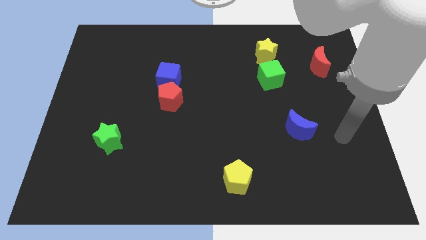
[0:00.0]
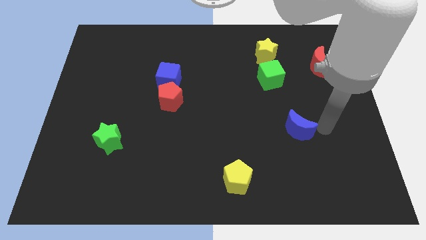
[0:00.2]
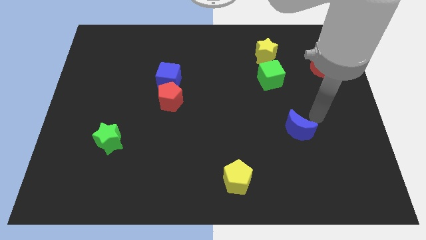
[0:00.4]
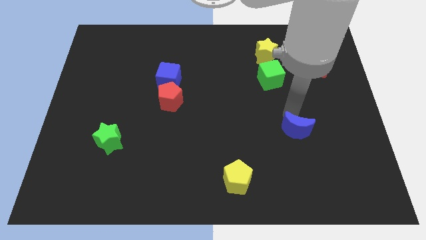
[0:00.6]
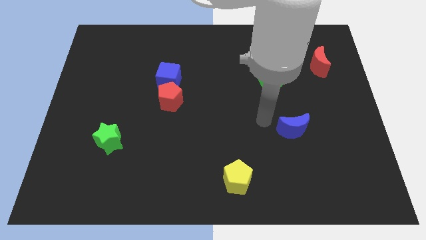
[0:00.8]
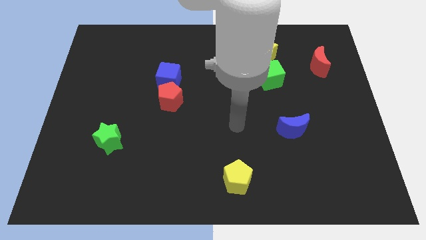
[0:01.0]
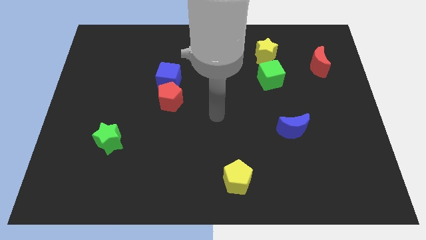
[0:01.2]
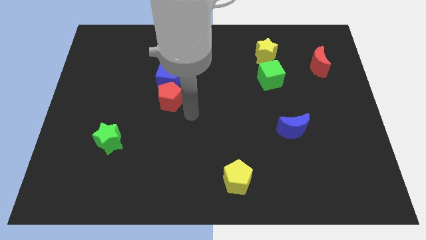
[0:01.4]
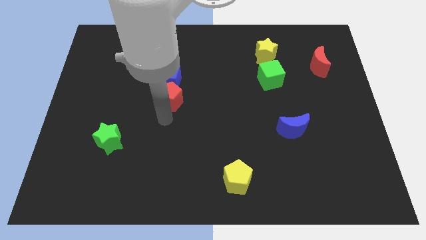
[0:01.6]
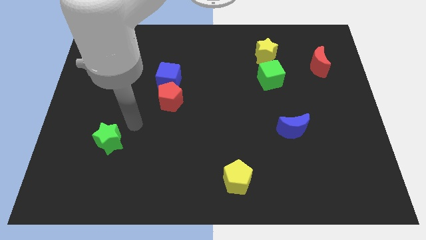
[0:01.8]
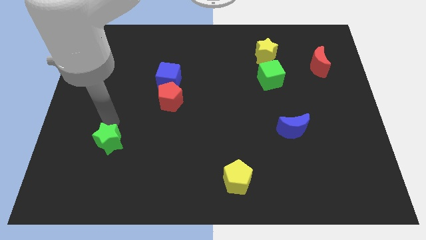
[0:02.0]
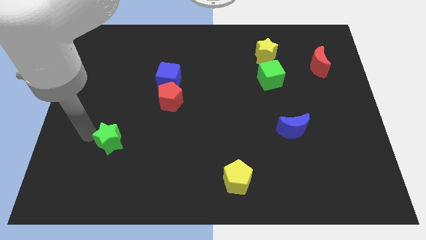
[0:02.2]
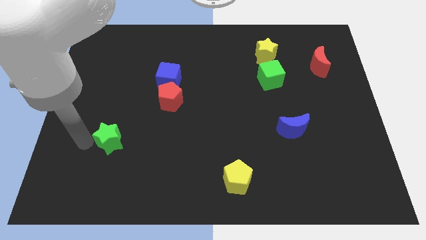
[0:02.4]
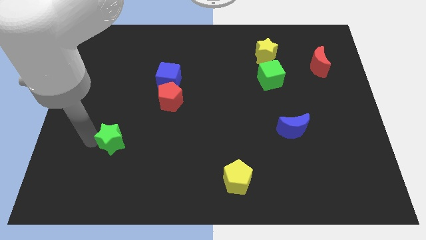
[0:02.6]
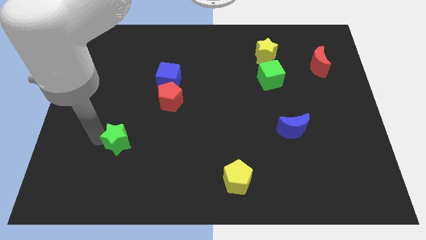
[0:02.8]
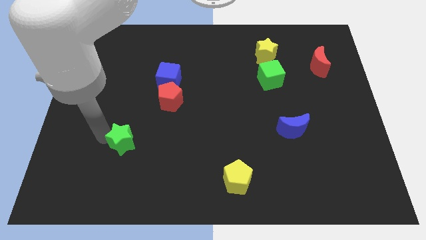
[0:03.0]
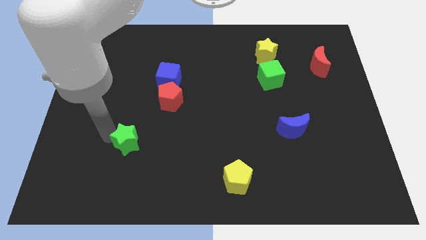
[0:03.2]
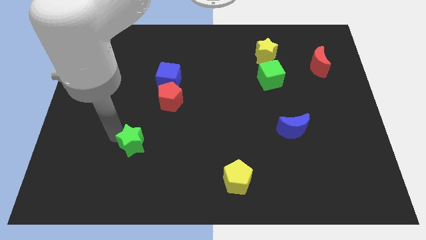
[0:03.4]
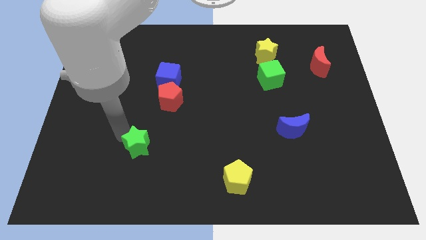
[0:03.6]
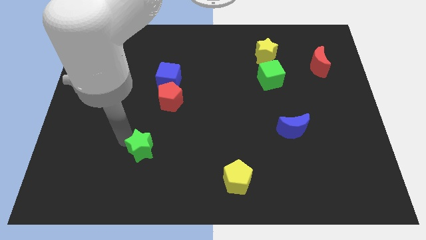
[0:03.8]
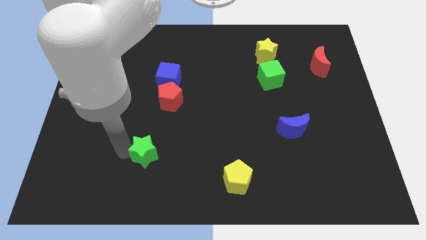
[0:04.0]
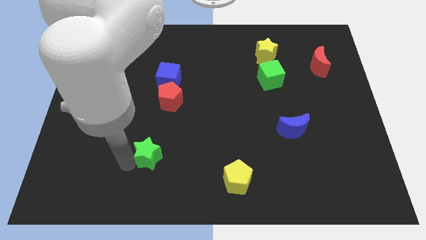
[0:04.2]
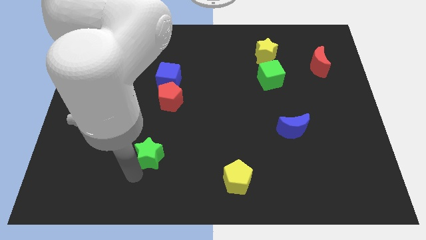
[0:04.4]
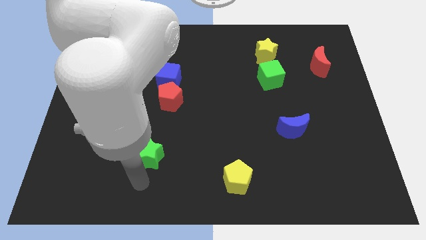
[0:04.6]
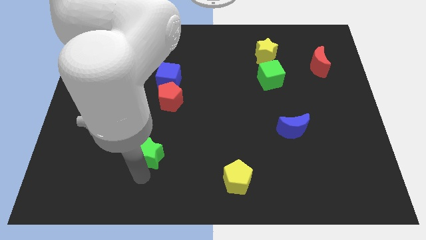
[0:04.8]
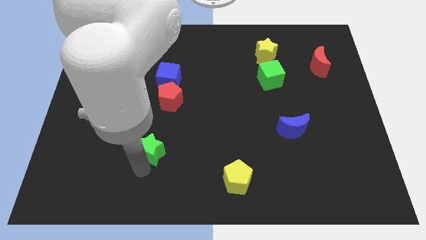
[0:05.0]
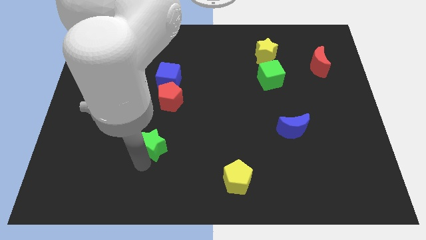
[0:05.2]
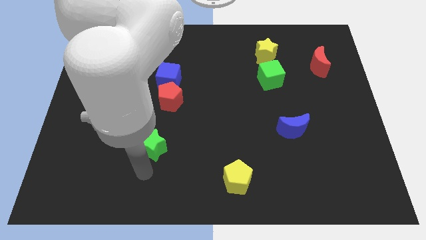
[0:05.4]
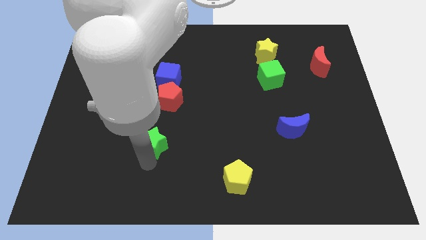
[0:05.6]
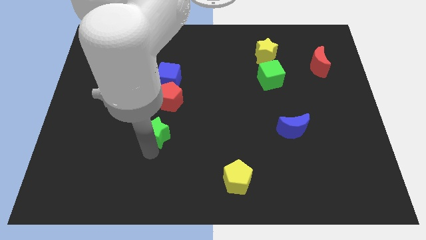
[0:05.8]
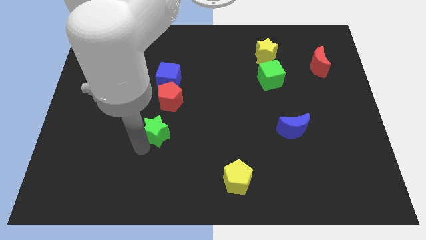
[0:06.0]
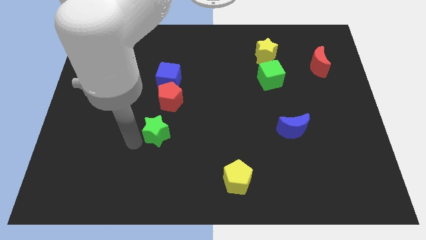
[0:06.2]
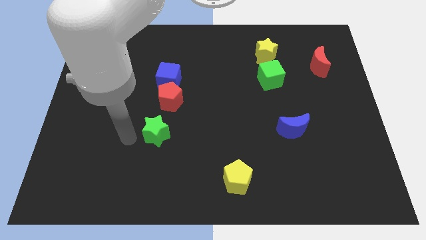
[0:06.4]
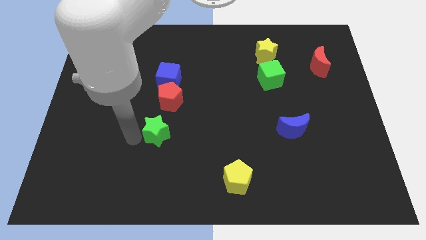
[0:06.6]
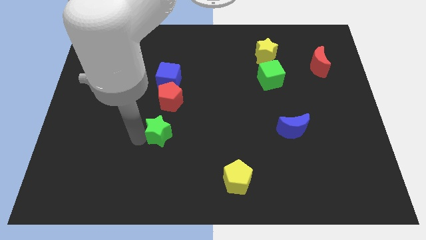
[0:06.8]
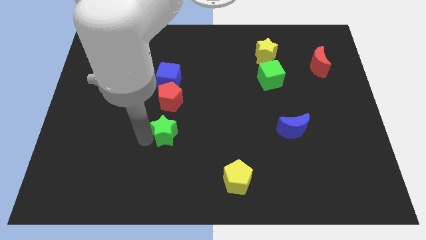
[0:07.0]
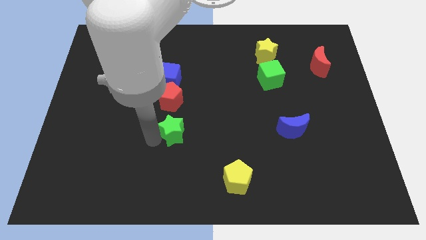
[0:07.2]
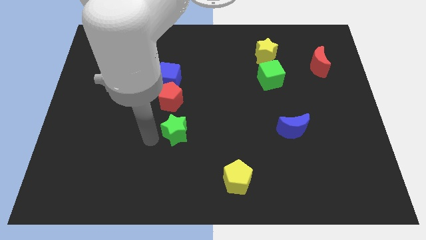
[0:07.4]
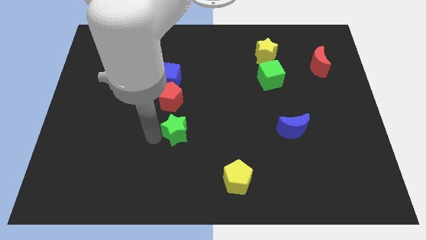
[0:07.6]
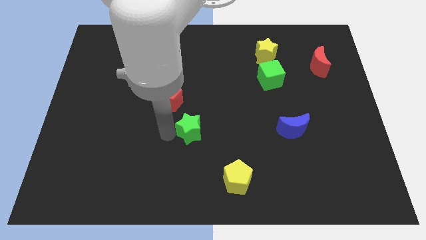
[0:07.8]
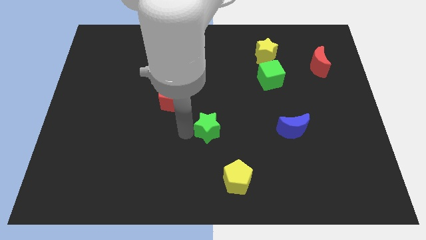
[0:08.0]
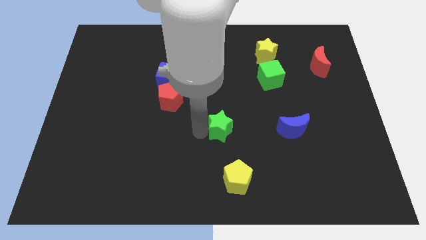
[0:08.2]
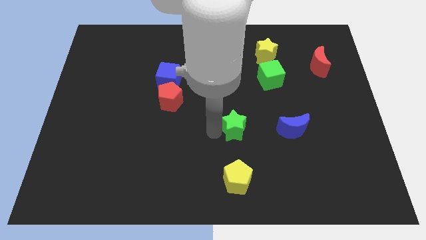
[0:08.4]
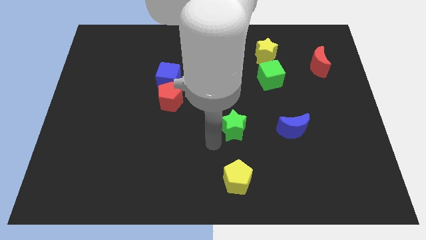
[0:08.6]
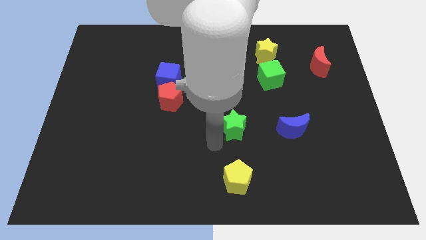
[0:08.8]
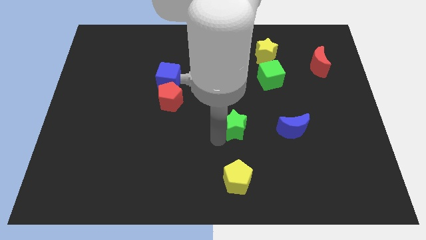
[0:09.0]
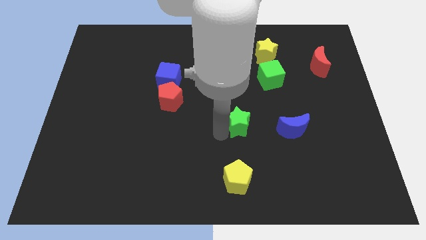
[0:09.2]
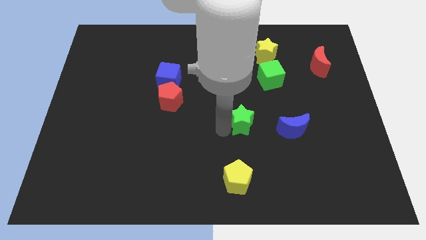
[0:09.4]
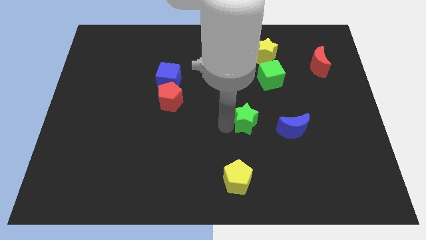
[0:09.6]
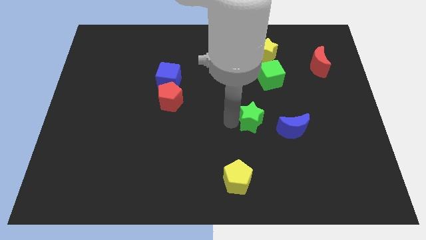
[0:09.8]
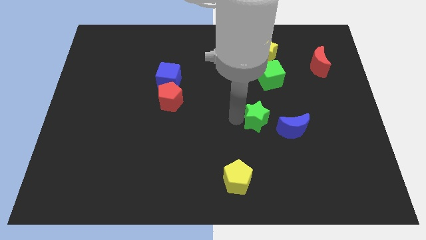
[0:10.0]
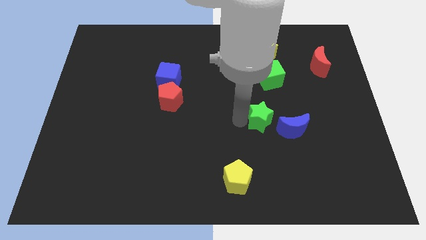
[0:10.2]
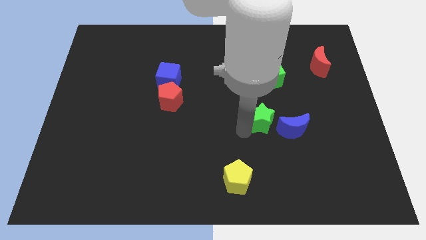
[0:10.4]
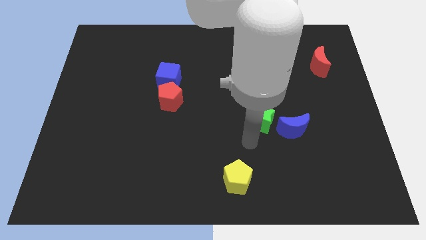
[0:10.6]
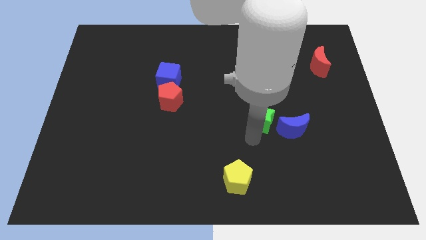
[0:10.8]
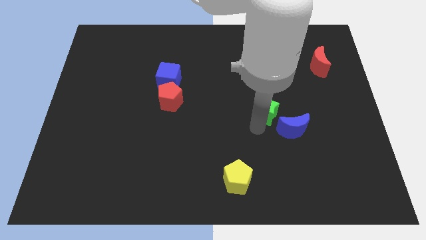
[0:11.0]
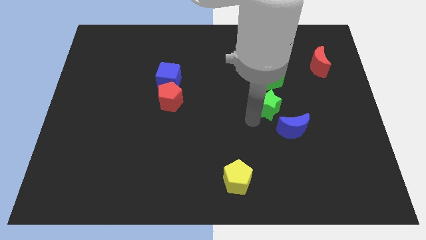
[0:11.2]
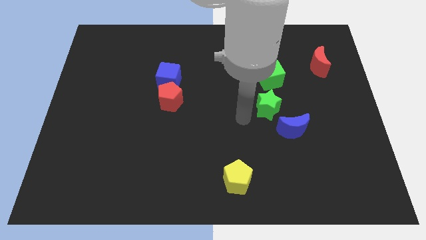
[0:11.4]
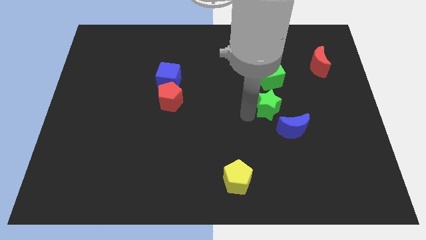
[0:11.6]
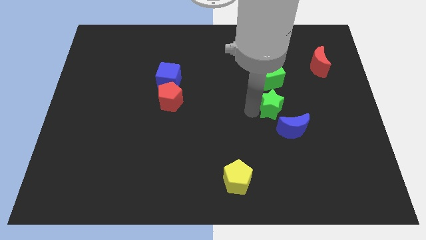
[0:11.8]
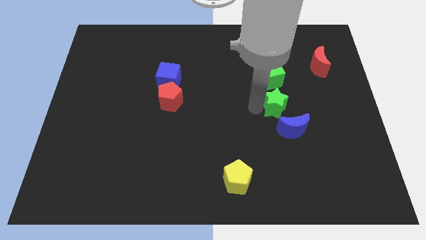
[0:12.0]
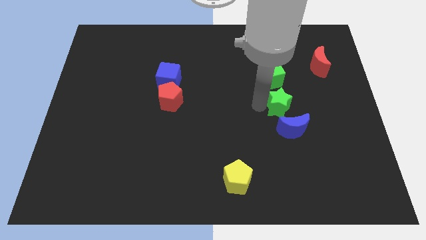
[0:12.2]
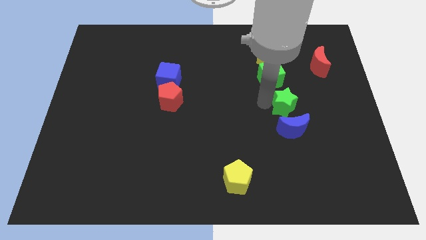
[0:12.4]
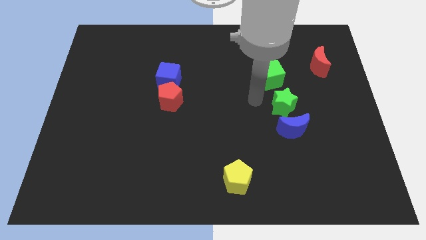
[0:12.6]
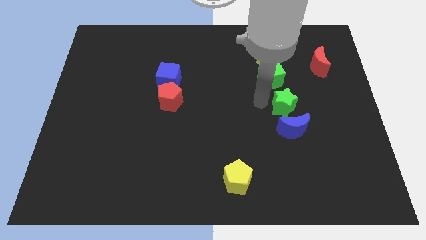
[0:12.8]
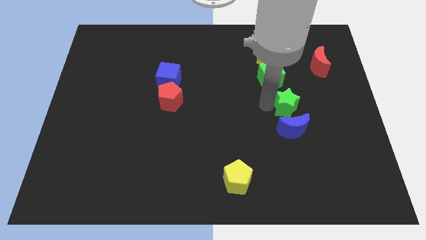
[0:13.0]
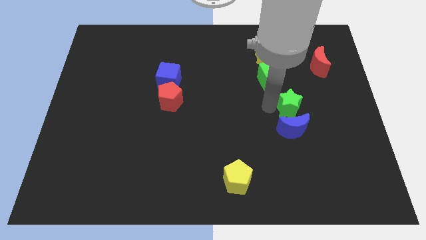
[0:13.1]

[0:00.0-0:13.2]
push the green star to the top right side of the blue moon
